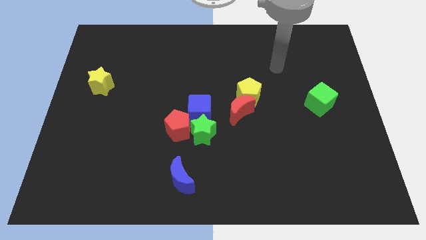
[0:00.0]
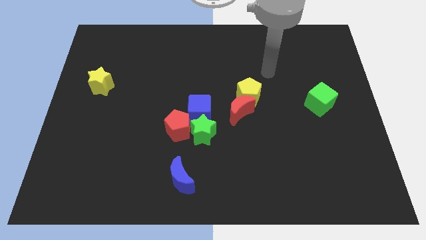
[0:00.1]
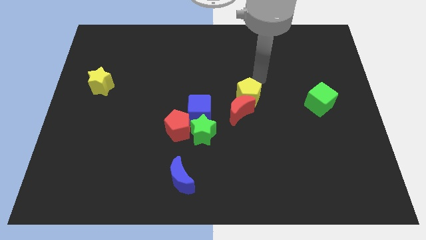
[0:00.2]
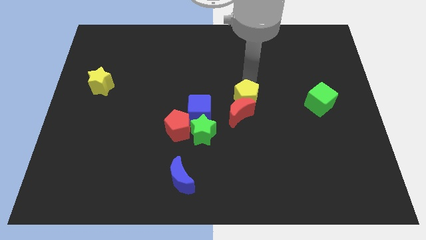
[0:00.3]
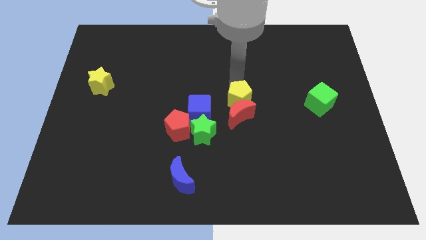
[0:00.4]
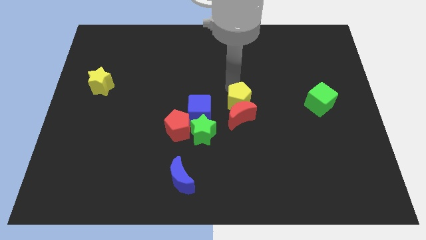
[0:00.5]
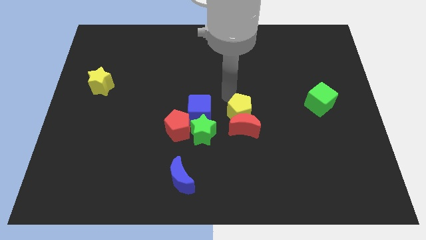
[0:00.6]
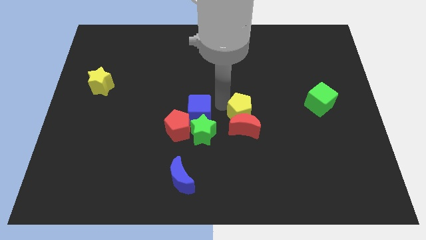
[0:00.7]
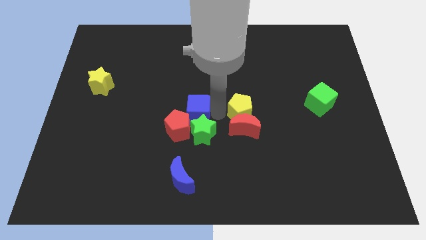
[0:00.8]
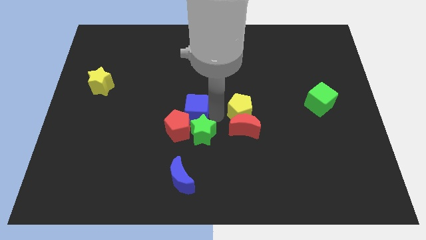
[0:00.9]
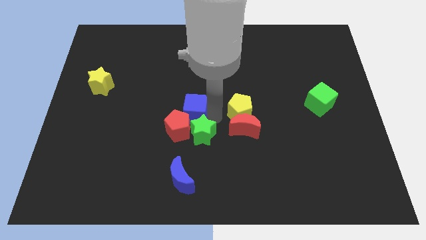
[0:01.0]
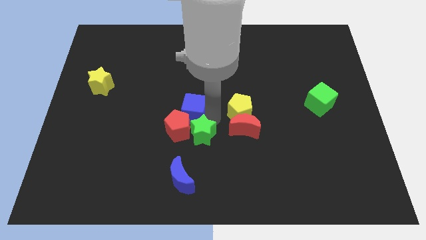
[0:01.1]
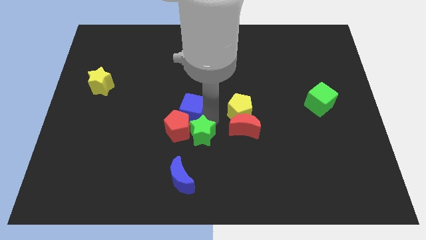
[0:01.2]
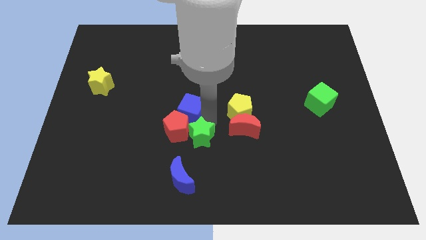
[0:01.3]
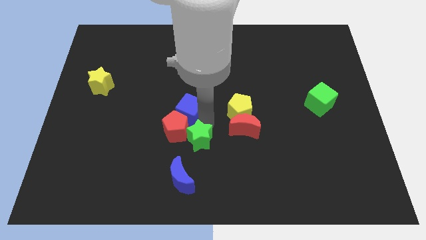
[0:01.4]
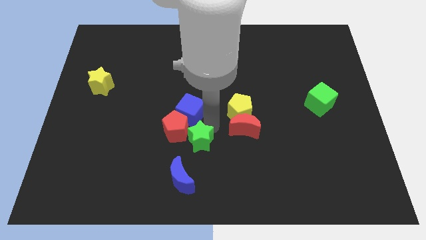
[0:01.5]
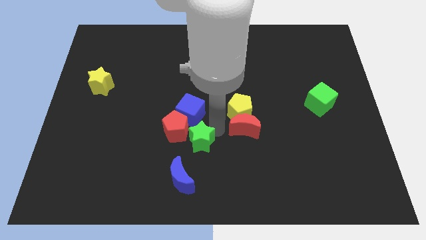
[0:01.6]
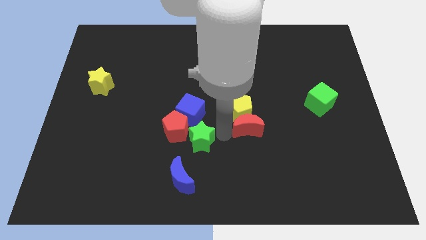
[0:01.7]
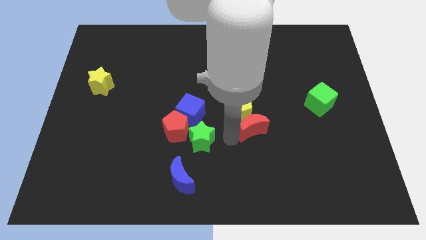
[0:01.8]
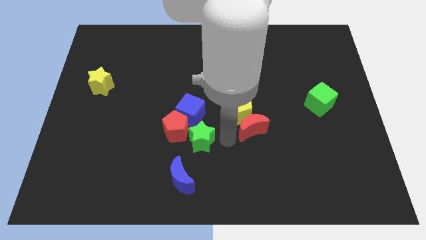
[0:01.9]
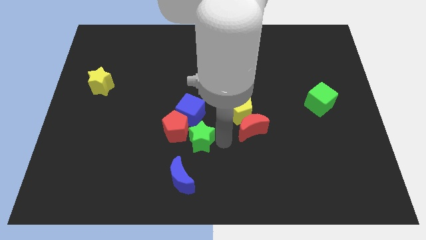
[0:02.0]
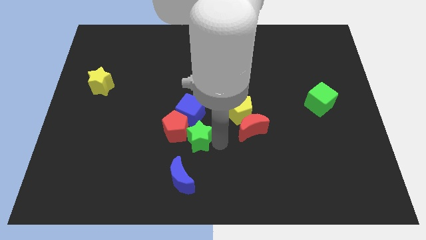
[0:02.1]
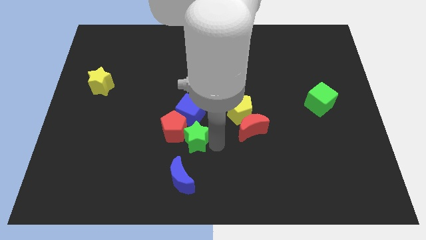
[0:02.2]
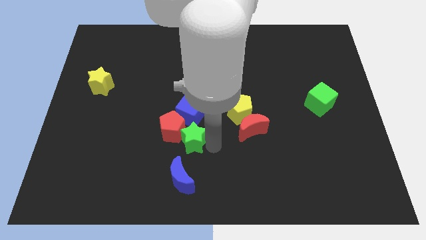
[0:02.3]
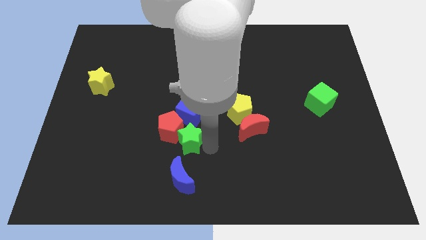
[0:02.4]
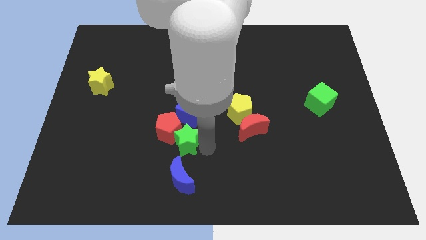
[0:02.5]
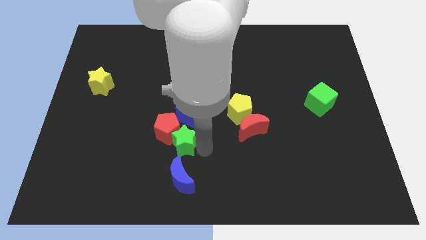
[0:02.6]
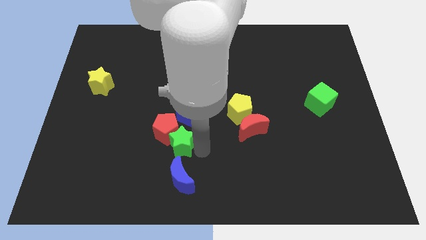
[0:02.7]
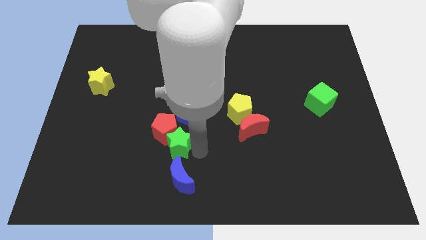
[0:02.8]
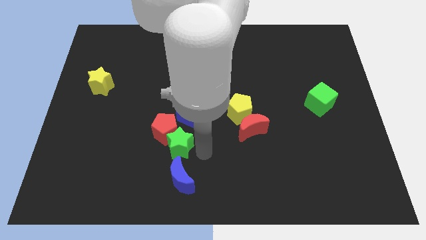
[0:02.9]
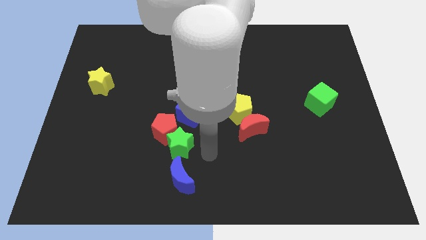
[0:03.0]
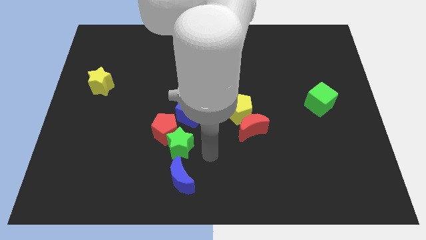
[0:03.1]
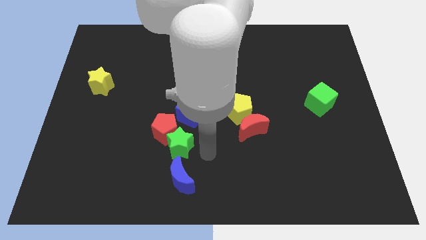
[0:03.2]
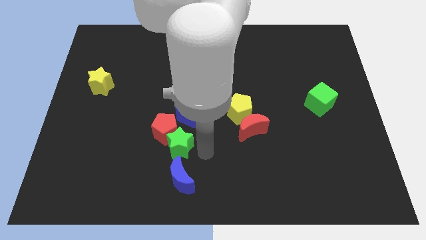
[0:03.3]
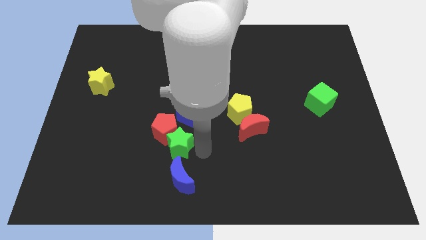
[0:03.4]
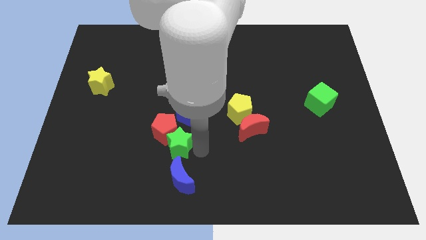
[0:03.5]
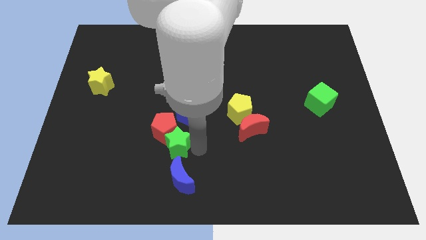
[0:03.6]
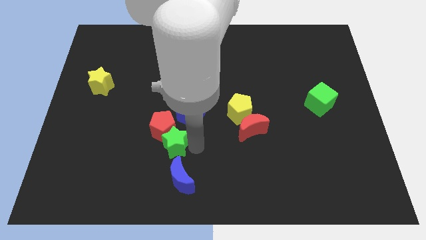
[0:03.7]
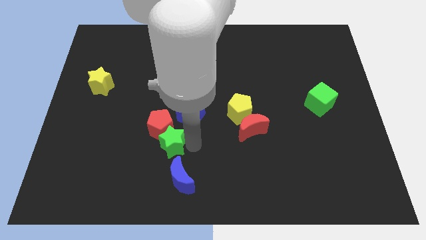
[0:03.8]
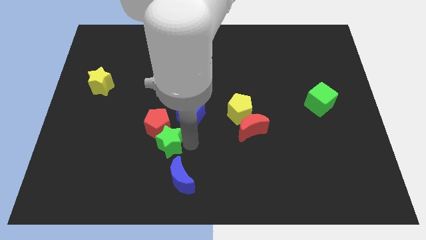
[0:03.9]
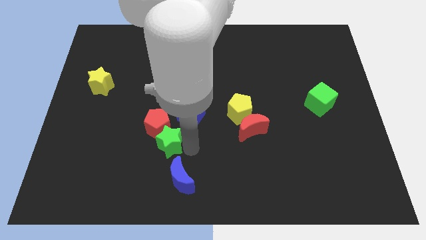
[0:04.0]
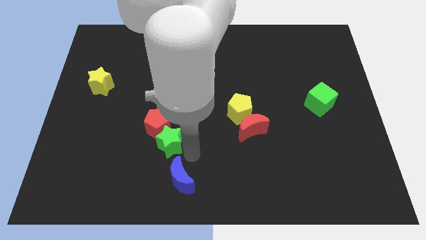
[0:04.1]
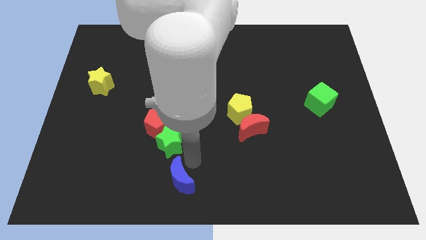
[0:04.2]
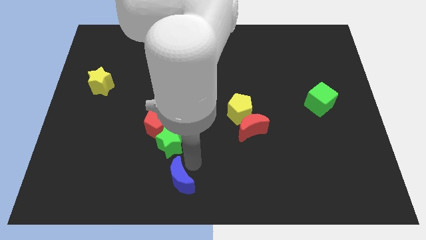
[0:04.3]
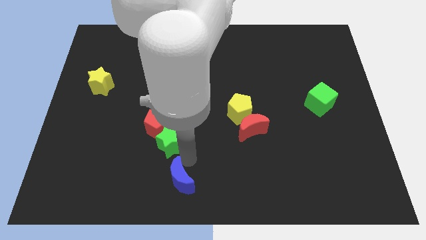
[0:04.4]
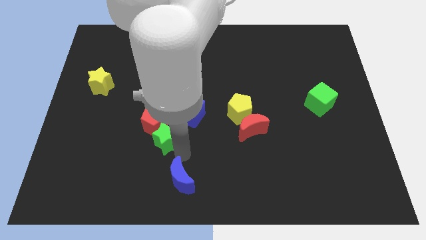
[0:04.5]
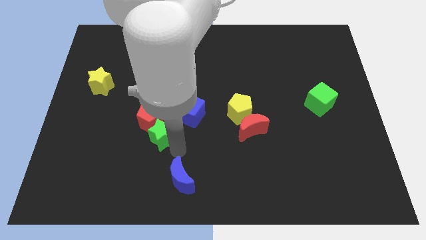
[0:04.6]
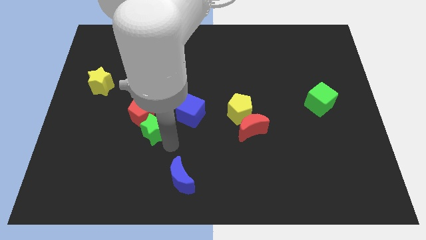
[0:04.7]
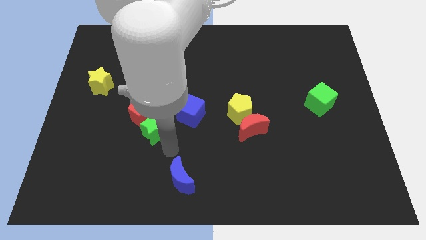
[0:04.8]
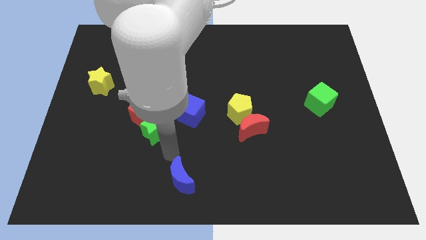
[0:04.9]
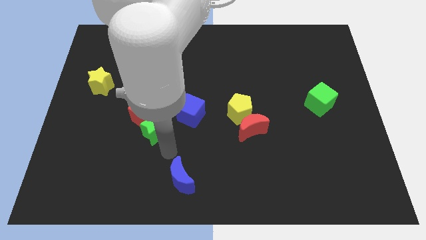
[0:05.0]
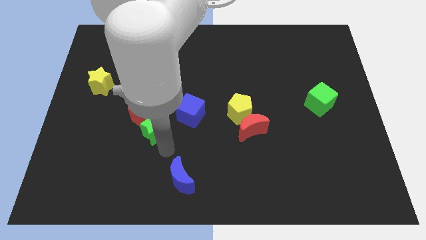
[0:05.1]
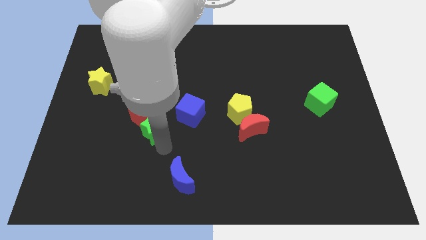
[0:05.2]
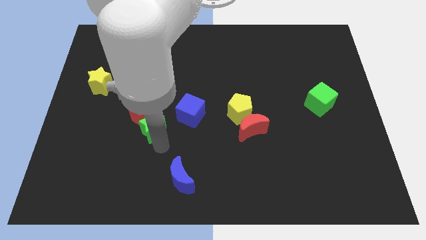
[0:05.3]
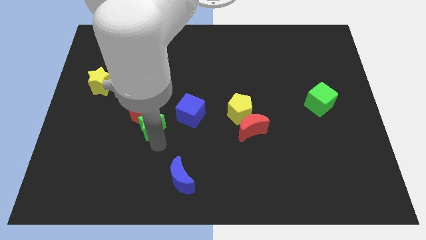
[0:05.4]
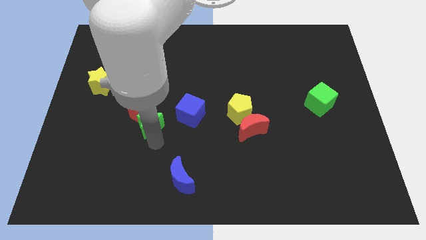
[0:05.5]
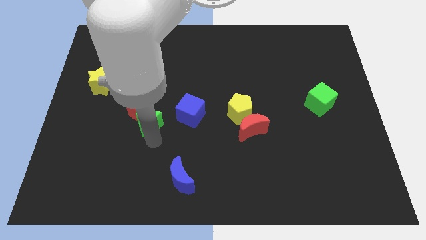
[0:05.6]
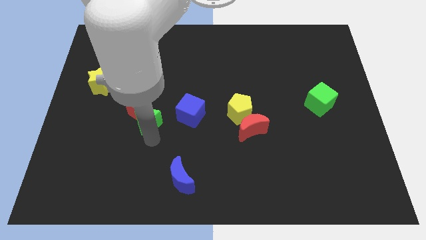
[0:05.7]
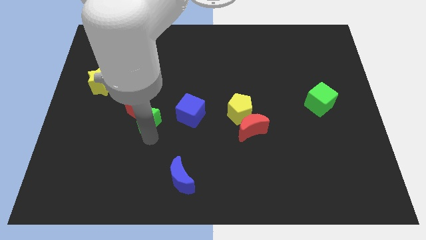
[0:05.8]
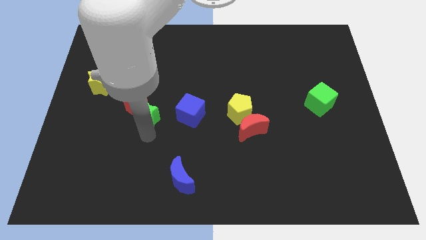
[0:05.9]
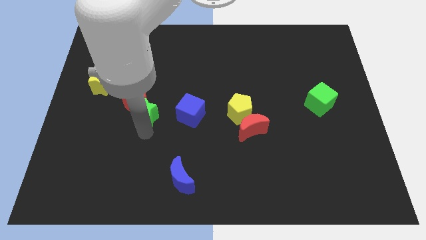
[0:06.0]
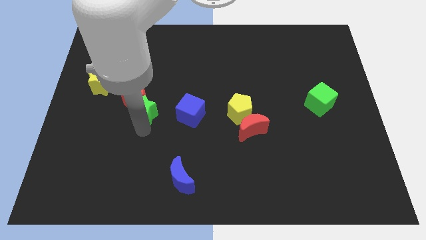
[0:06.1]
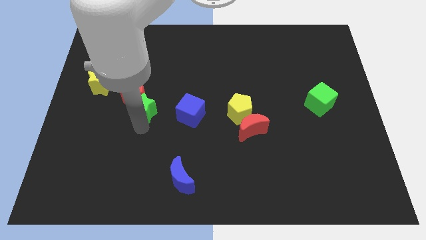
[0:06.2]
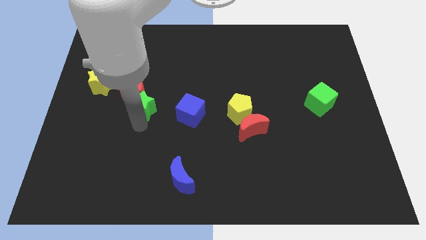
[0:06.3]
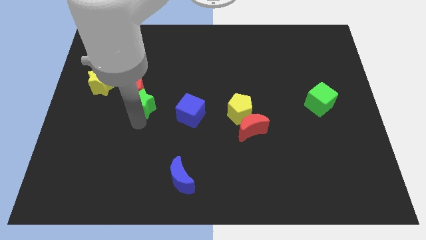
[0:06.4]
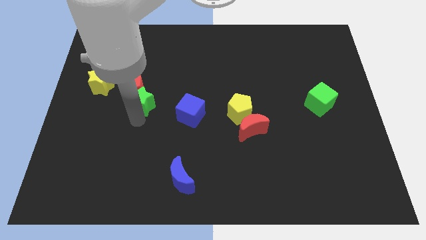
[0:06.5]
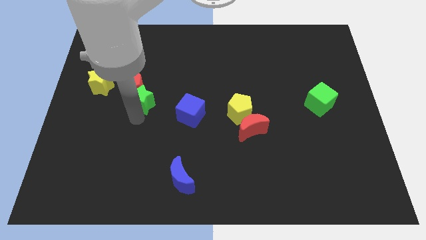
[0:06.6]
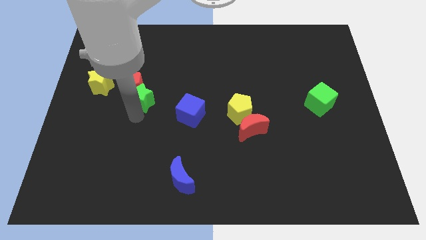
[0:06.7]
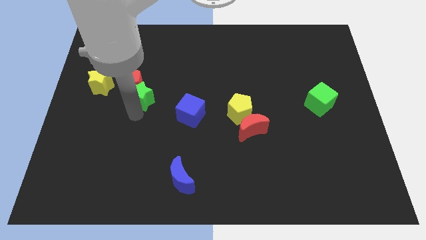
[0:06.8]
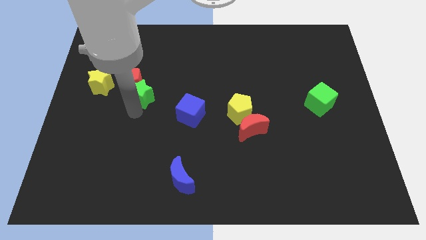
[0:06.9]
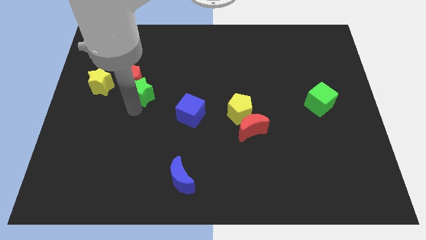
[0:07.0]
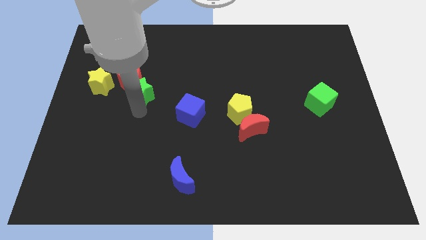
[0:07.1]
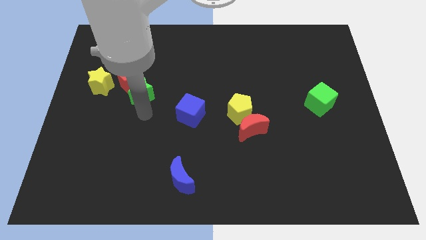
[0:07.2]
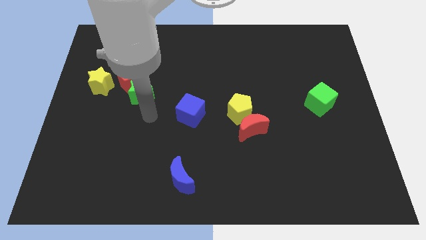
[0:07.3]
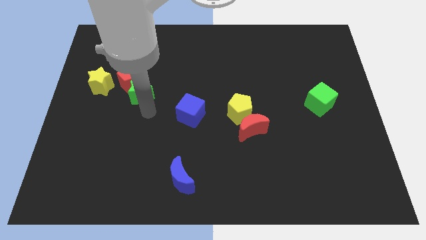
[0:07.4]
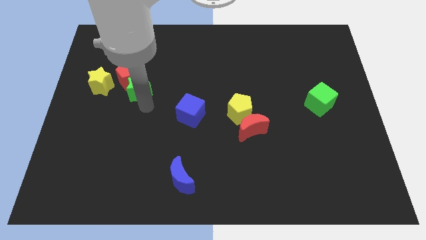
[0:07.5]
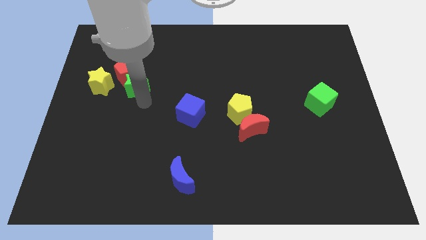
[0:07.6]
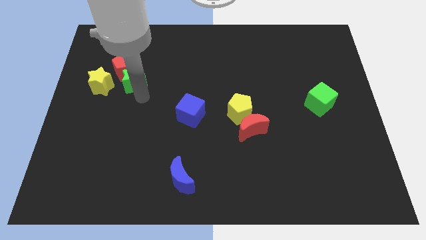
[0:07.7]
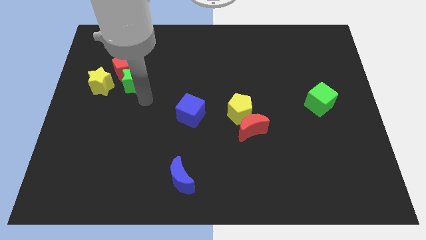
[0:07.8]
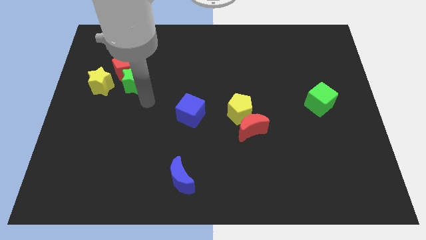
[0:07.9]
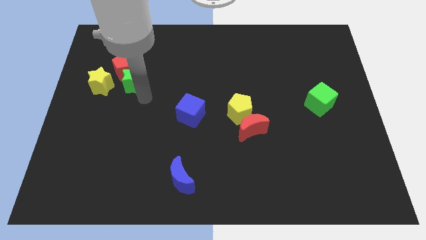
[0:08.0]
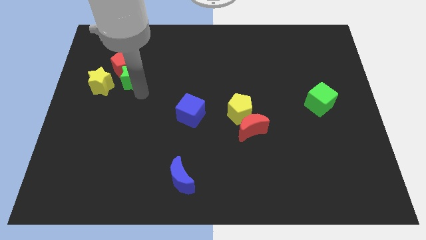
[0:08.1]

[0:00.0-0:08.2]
push the green star to the top right of the yellow star
